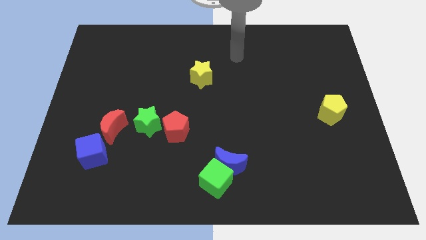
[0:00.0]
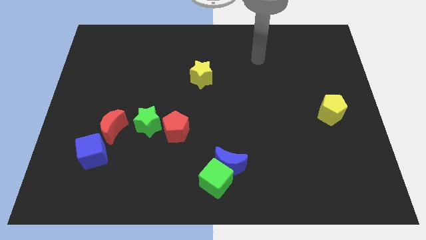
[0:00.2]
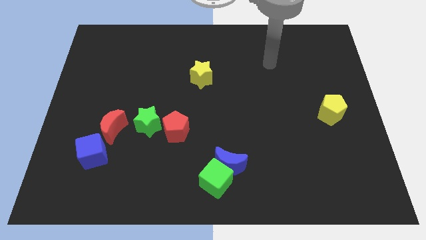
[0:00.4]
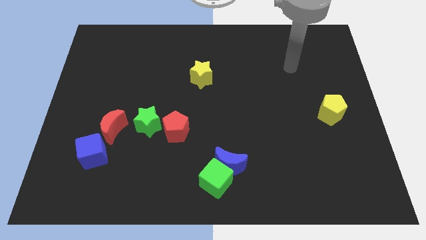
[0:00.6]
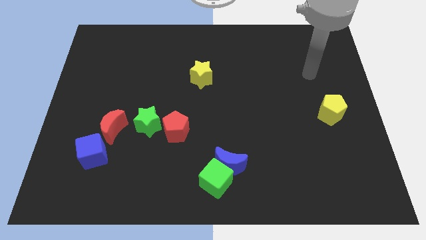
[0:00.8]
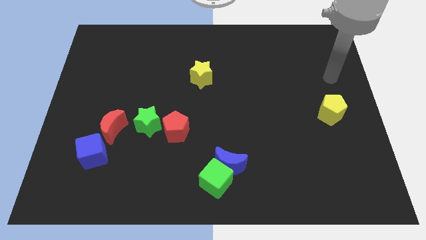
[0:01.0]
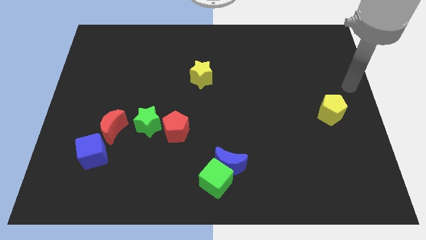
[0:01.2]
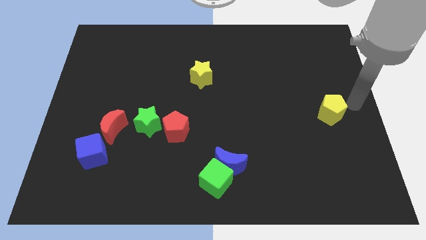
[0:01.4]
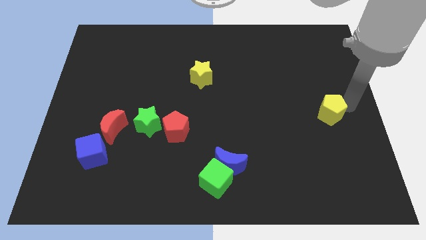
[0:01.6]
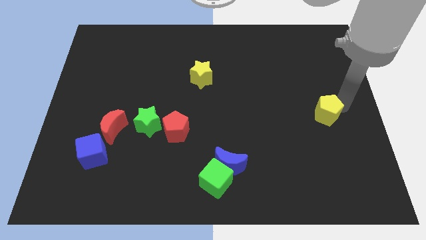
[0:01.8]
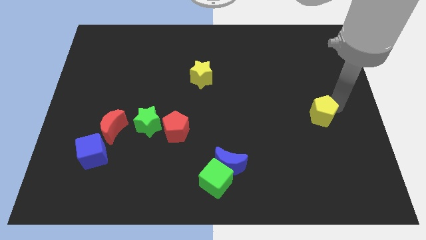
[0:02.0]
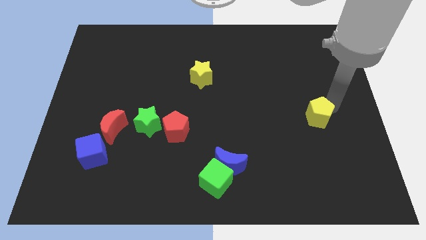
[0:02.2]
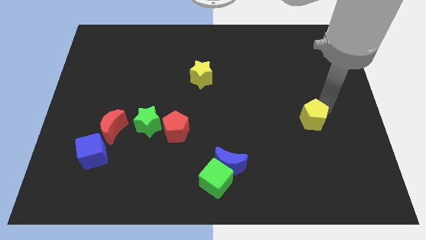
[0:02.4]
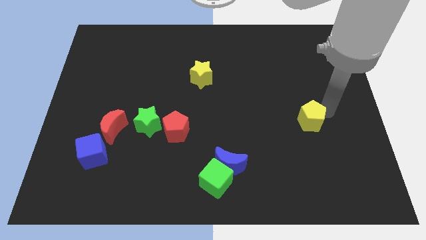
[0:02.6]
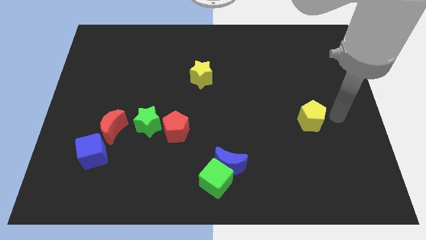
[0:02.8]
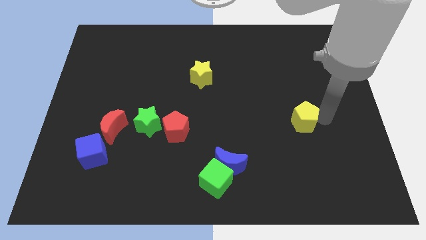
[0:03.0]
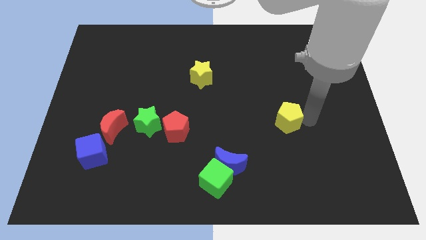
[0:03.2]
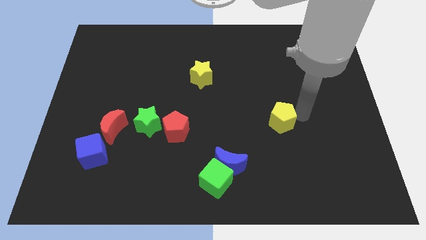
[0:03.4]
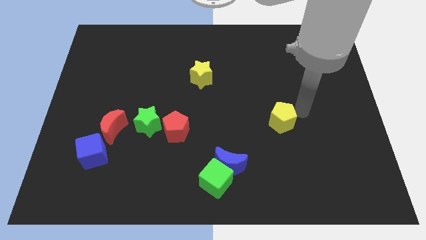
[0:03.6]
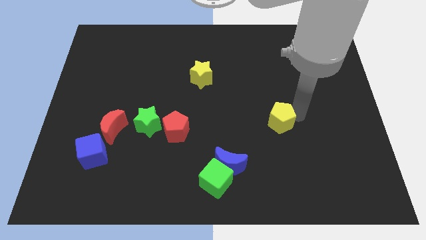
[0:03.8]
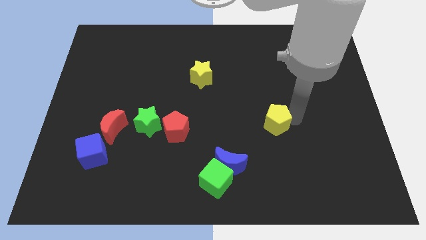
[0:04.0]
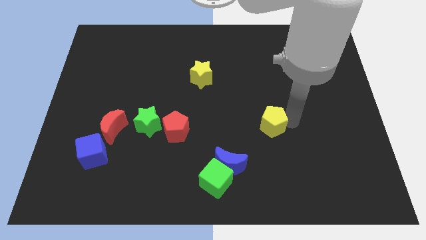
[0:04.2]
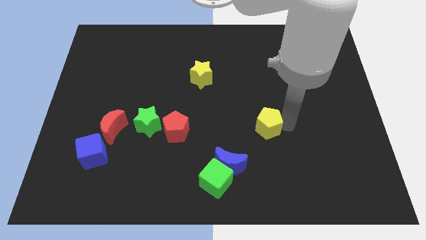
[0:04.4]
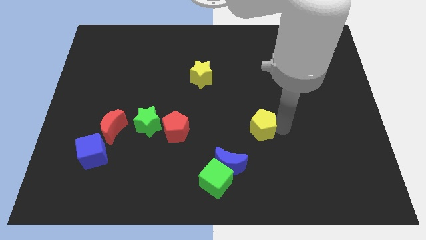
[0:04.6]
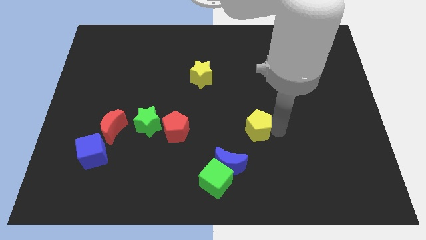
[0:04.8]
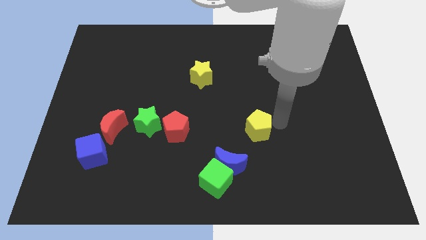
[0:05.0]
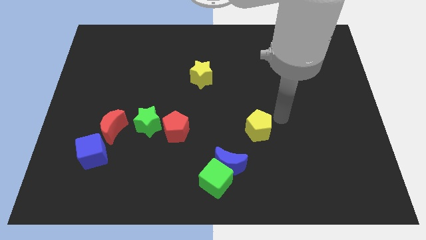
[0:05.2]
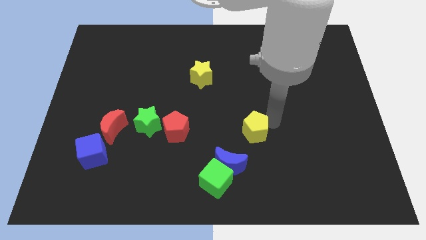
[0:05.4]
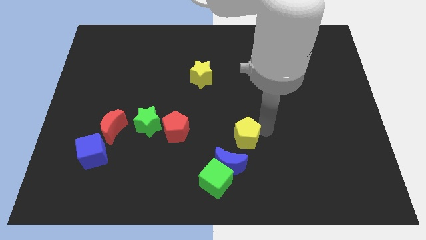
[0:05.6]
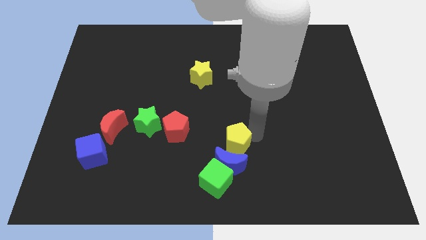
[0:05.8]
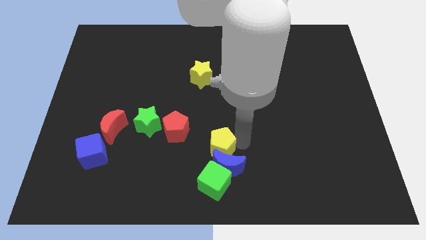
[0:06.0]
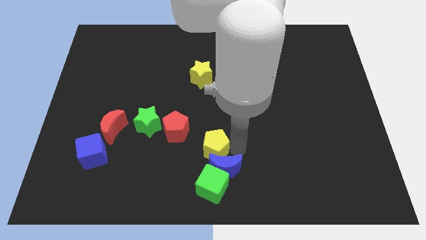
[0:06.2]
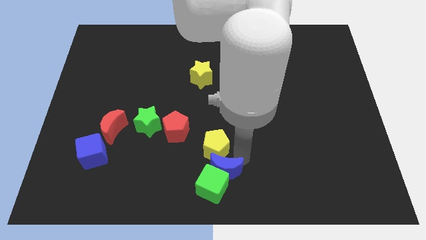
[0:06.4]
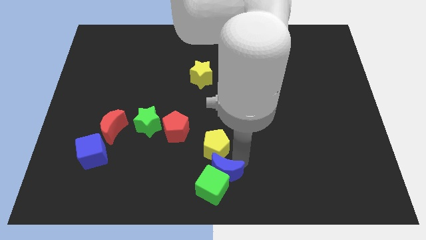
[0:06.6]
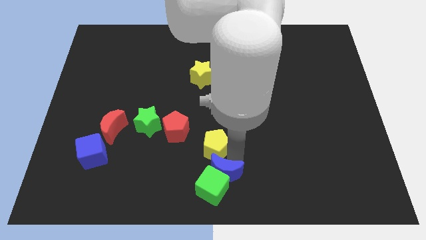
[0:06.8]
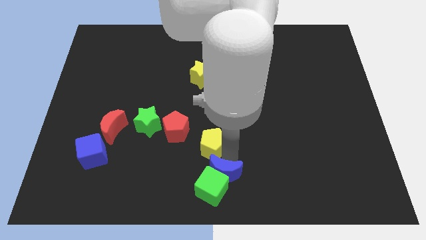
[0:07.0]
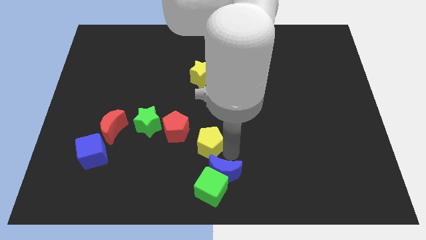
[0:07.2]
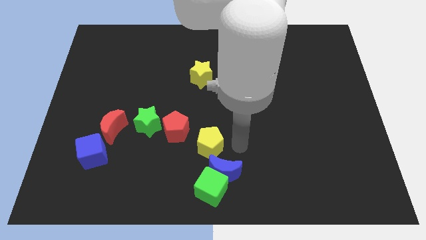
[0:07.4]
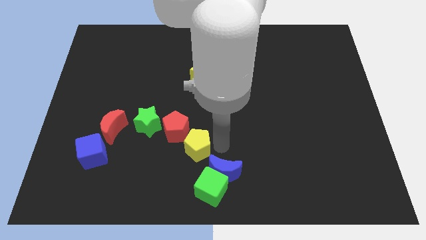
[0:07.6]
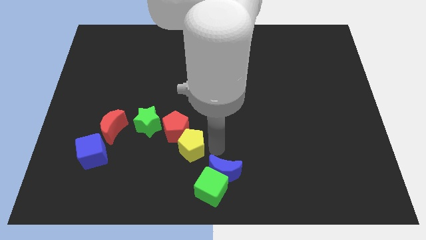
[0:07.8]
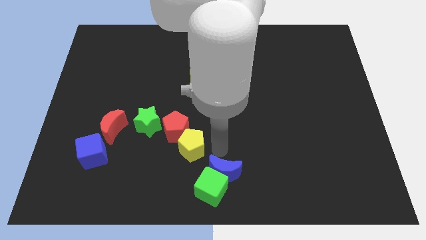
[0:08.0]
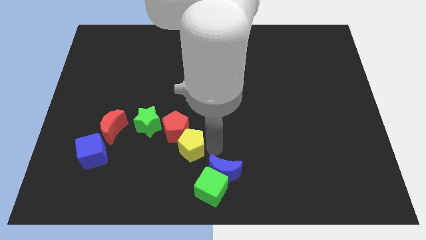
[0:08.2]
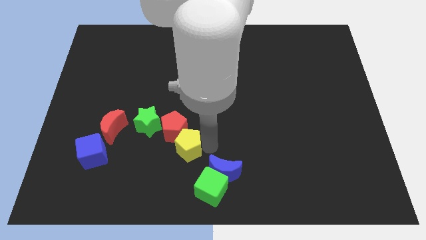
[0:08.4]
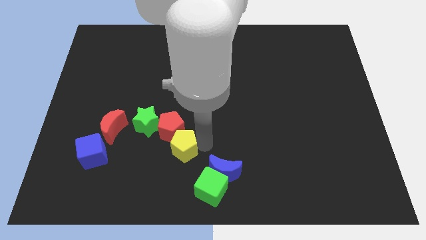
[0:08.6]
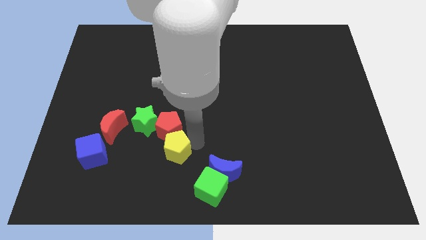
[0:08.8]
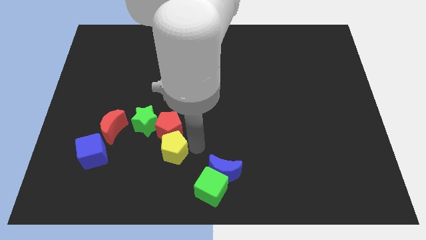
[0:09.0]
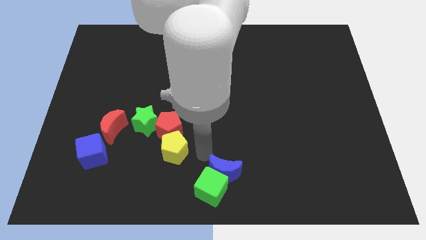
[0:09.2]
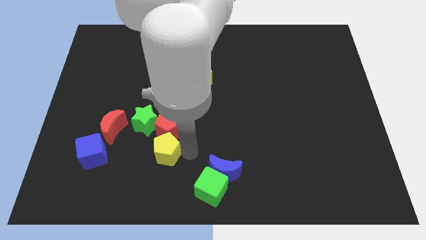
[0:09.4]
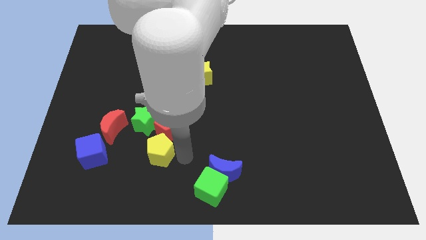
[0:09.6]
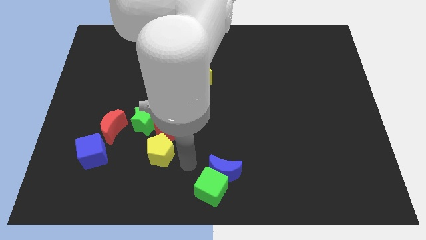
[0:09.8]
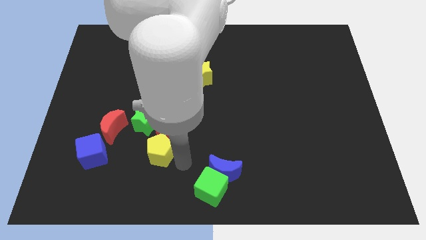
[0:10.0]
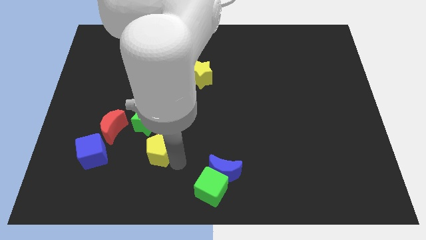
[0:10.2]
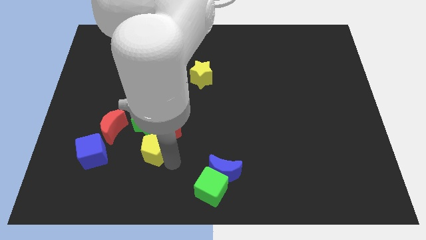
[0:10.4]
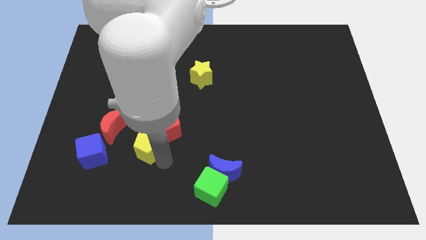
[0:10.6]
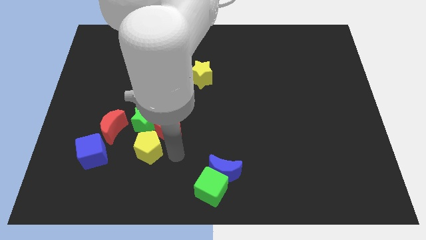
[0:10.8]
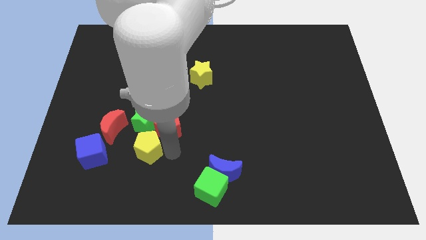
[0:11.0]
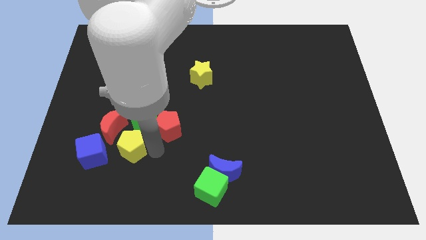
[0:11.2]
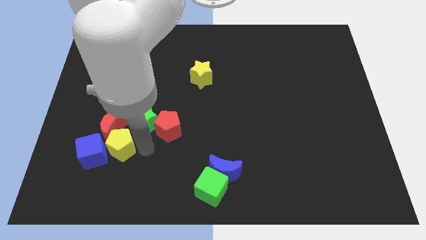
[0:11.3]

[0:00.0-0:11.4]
move the yellow pentagon towards the blue cube

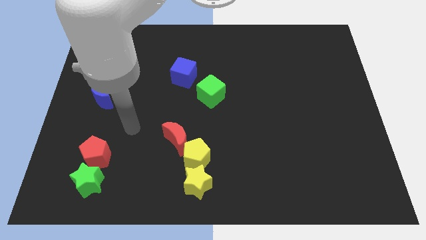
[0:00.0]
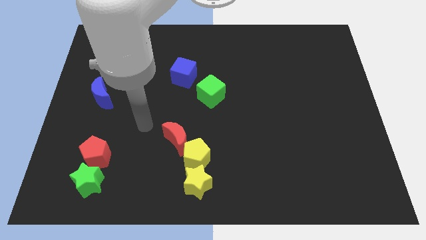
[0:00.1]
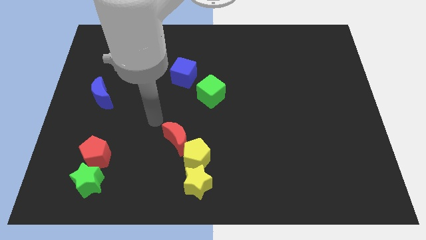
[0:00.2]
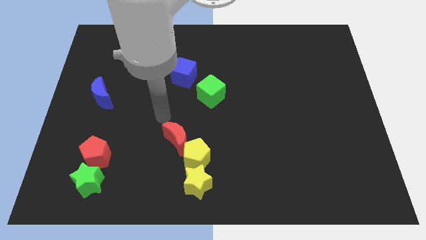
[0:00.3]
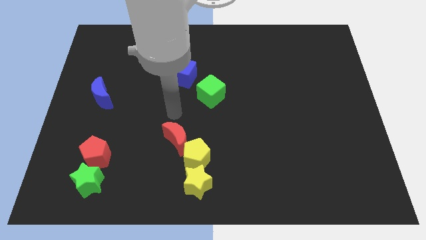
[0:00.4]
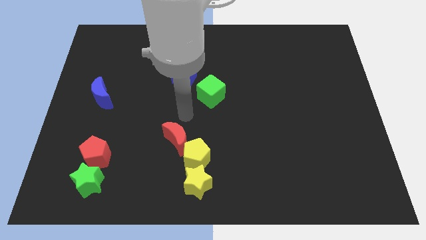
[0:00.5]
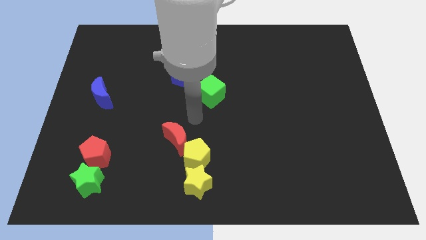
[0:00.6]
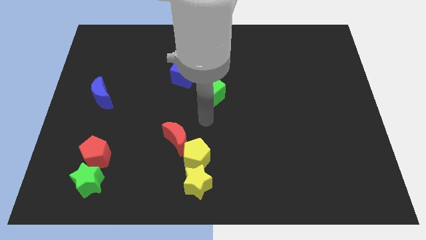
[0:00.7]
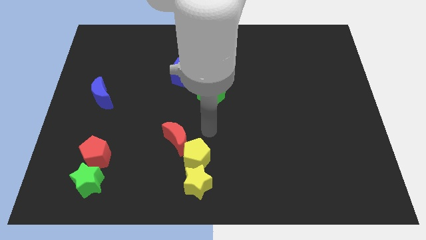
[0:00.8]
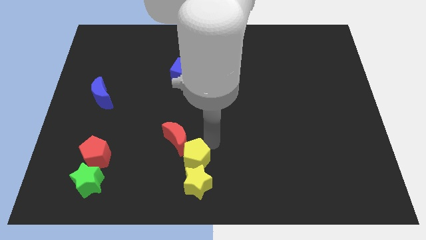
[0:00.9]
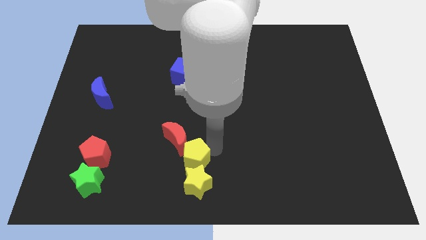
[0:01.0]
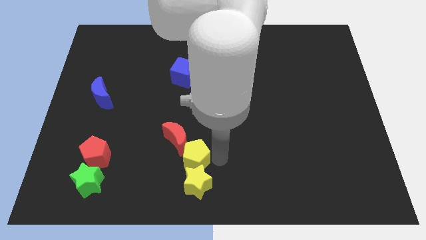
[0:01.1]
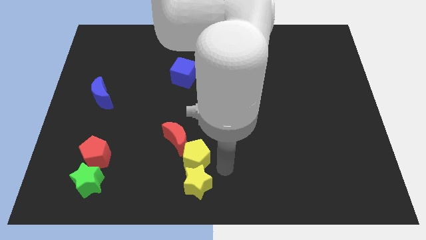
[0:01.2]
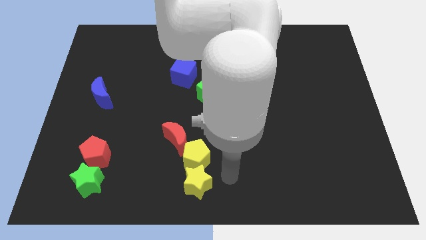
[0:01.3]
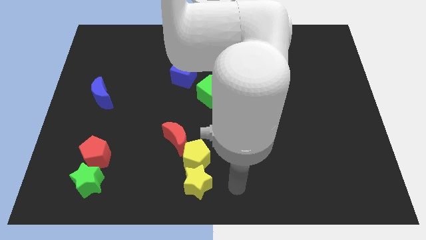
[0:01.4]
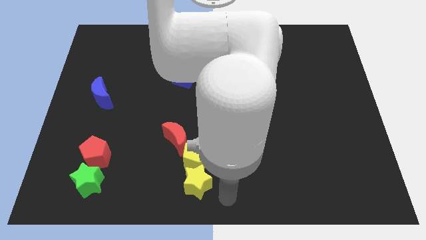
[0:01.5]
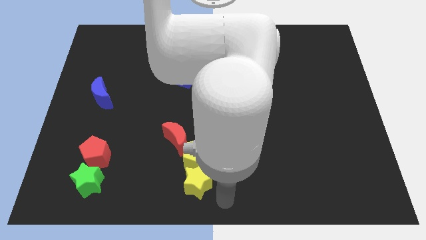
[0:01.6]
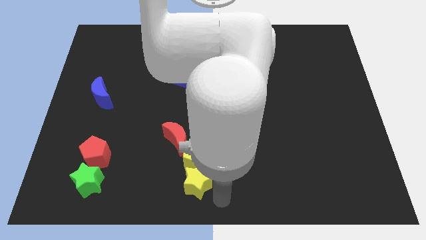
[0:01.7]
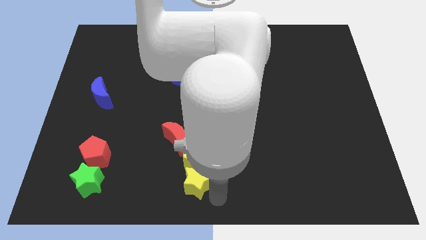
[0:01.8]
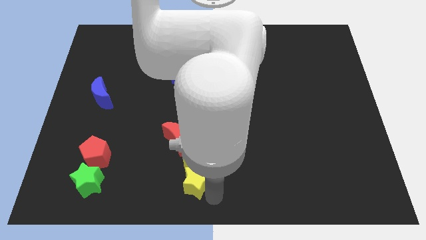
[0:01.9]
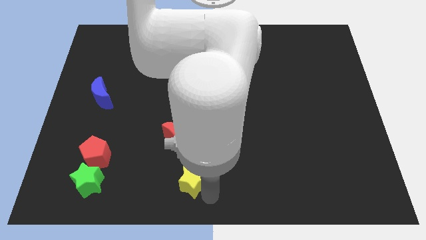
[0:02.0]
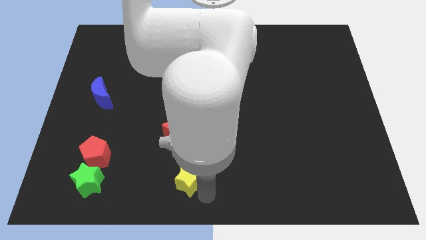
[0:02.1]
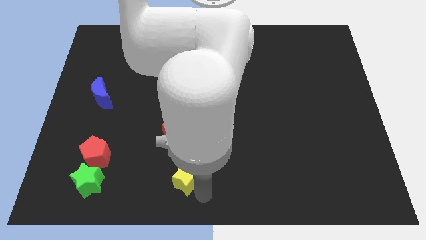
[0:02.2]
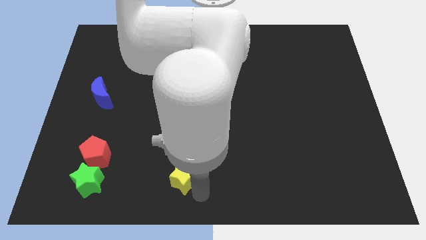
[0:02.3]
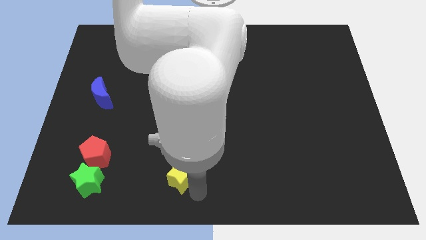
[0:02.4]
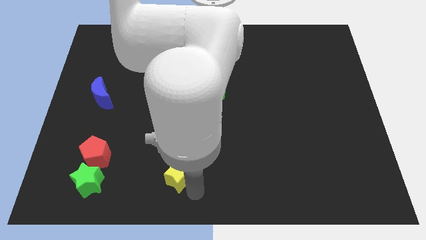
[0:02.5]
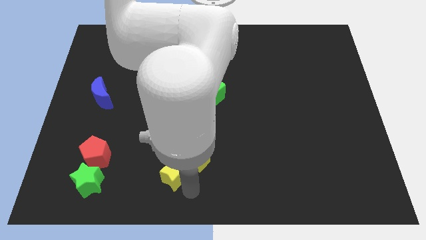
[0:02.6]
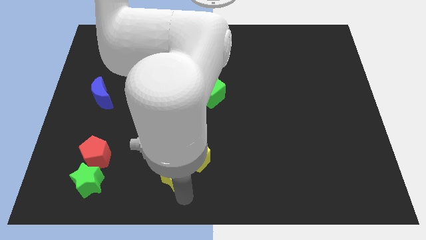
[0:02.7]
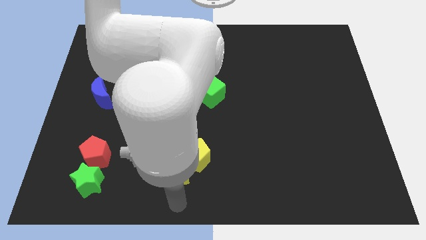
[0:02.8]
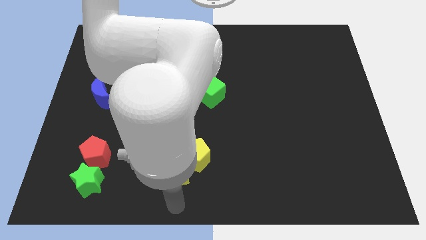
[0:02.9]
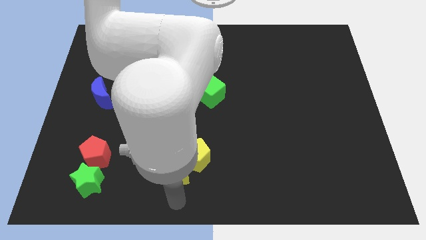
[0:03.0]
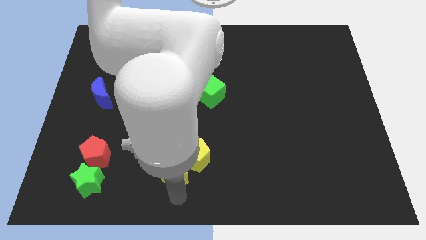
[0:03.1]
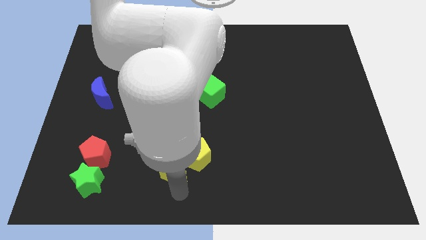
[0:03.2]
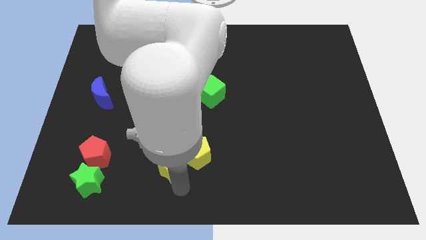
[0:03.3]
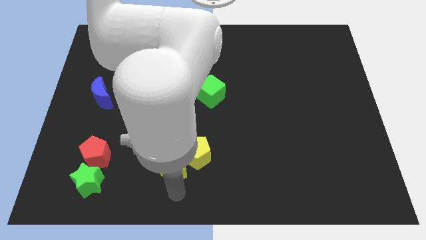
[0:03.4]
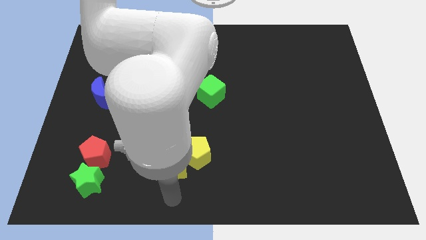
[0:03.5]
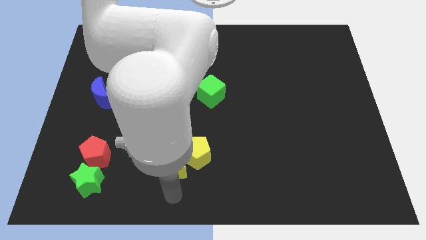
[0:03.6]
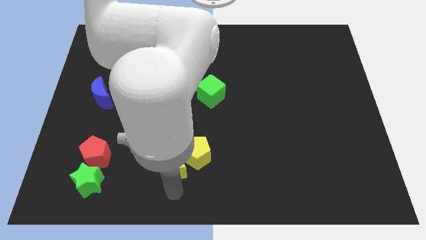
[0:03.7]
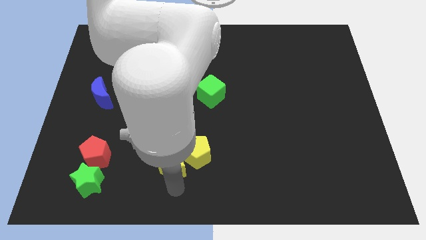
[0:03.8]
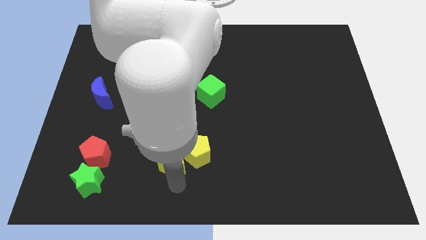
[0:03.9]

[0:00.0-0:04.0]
put the yellow star towards the red moon
